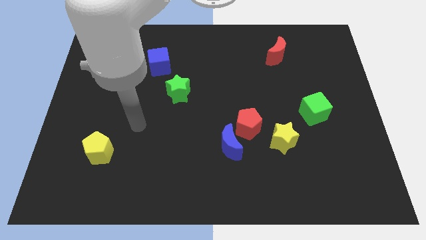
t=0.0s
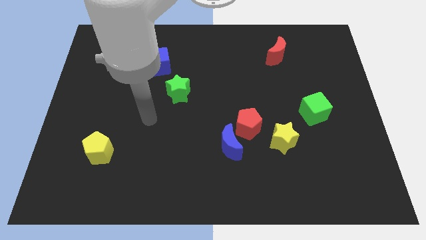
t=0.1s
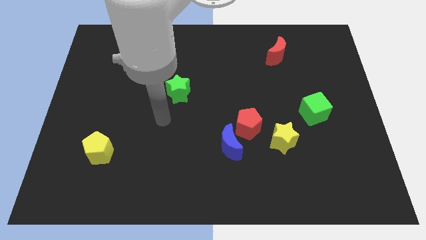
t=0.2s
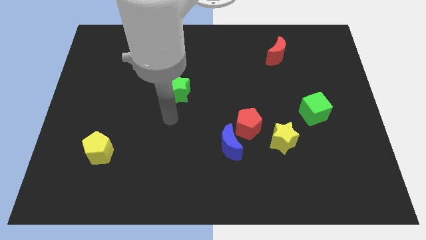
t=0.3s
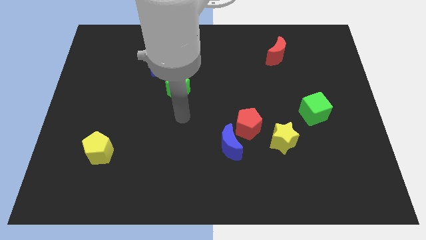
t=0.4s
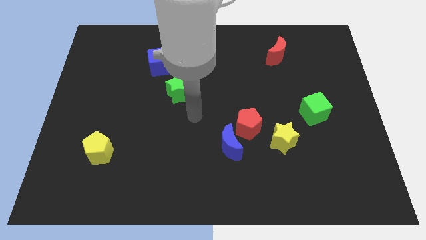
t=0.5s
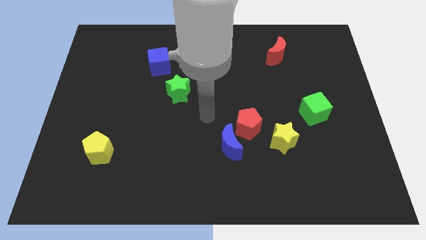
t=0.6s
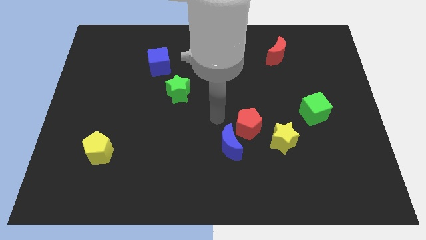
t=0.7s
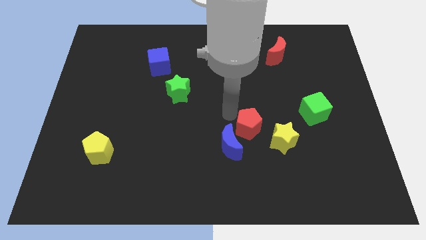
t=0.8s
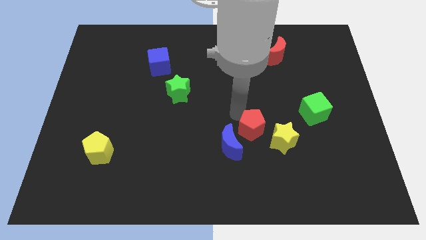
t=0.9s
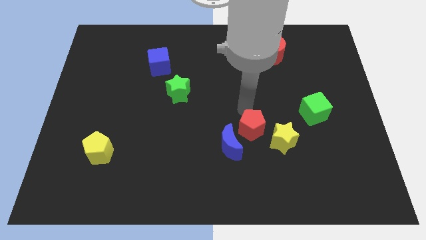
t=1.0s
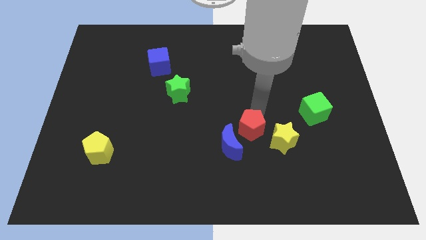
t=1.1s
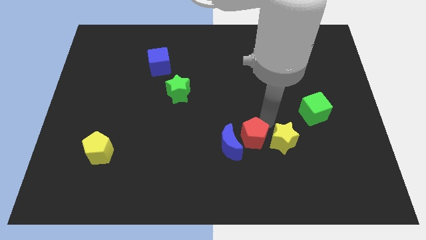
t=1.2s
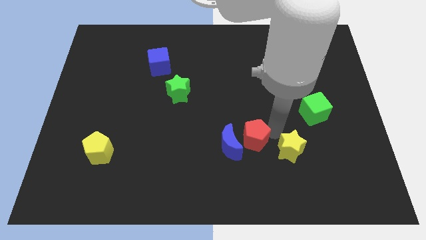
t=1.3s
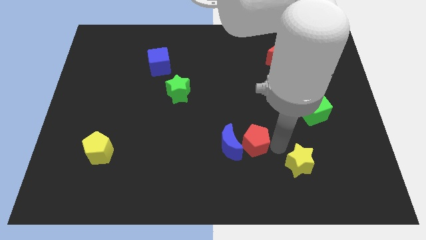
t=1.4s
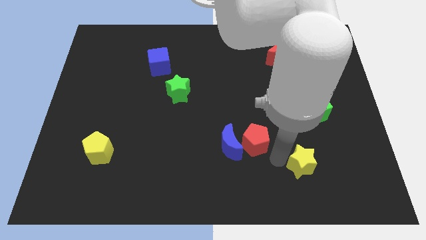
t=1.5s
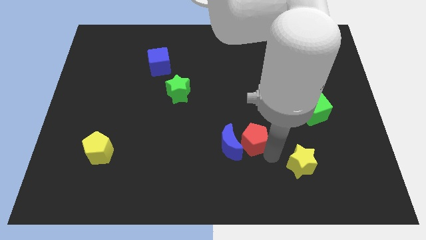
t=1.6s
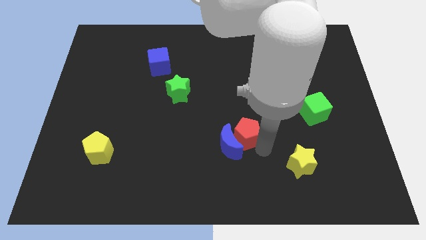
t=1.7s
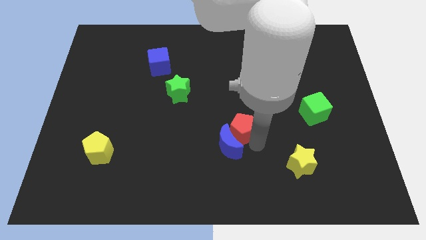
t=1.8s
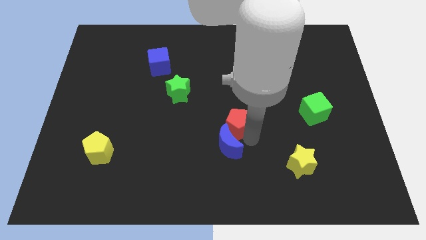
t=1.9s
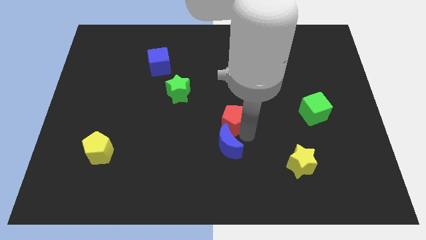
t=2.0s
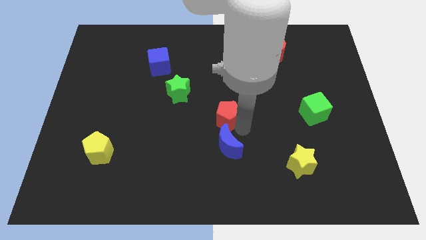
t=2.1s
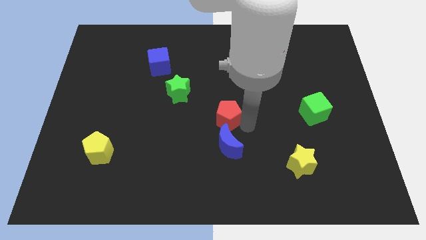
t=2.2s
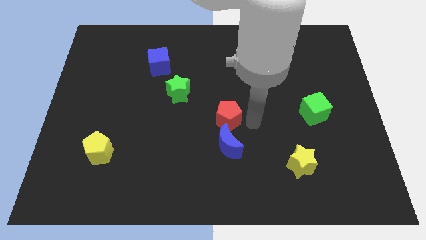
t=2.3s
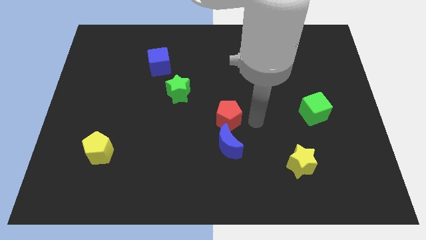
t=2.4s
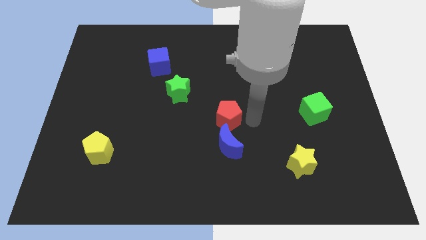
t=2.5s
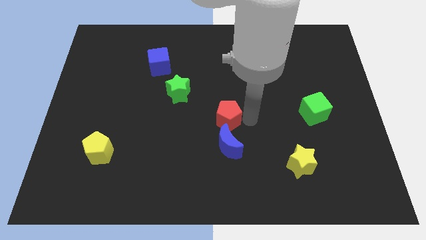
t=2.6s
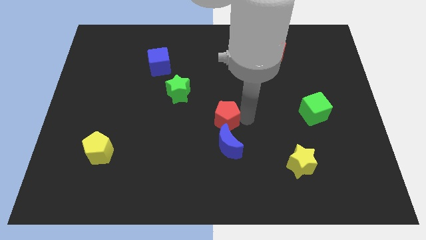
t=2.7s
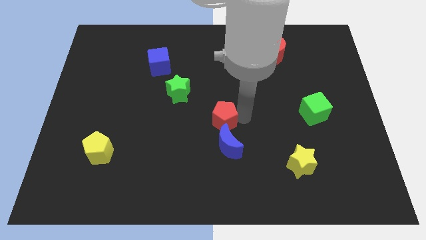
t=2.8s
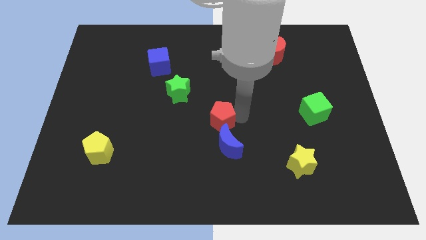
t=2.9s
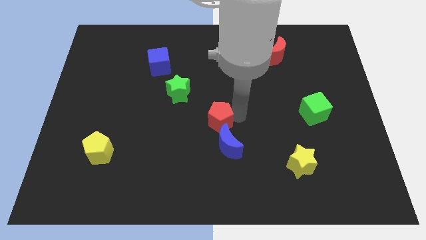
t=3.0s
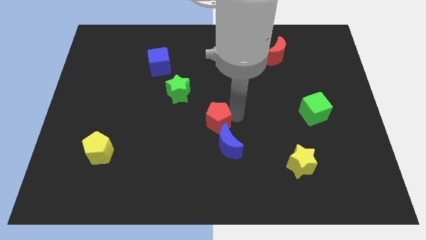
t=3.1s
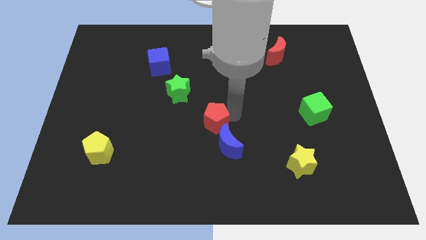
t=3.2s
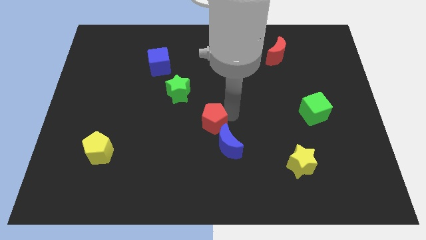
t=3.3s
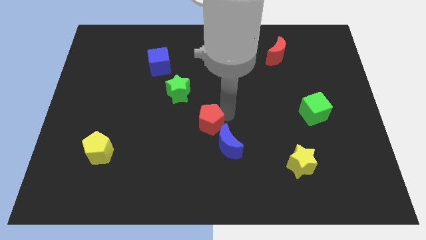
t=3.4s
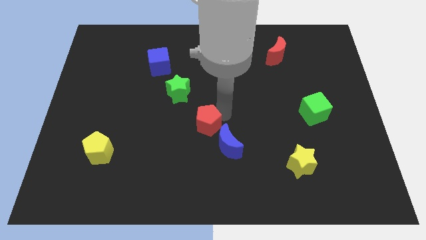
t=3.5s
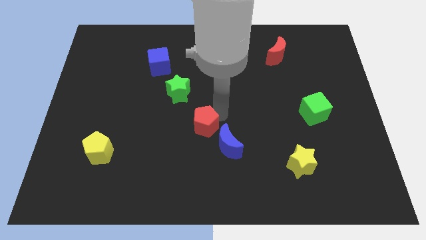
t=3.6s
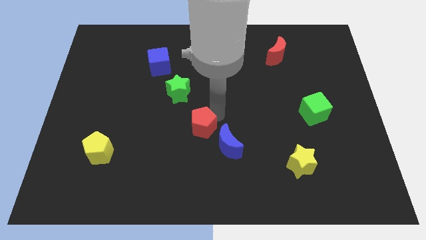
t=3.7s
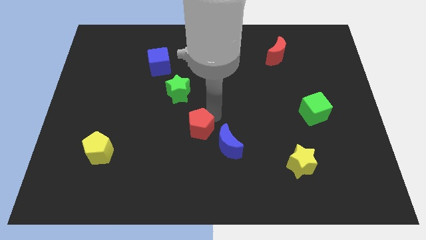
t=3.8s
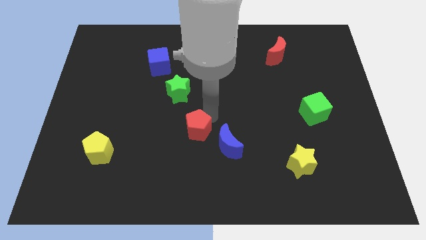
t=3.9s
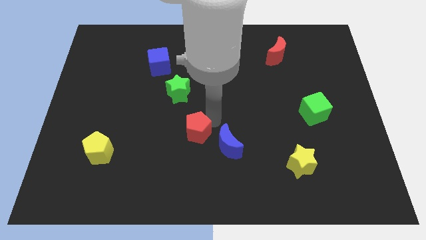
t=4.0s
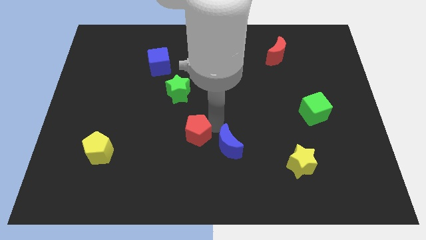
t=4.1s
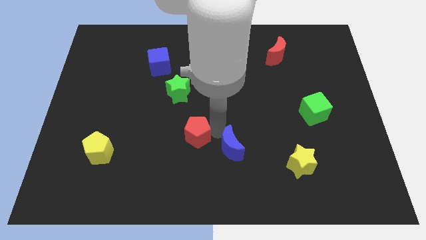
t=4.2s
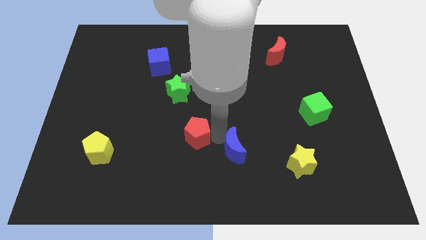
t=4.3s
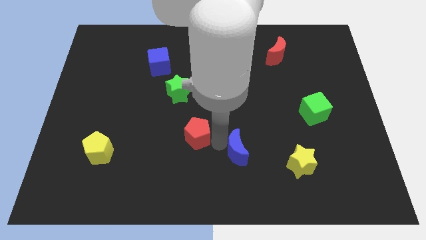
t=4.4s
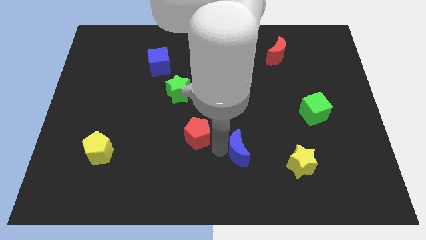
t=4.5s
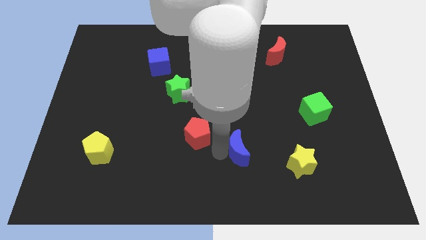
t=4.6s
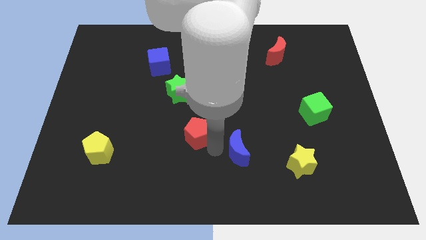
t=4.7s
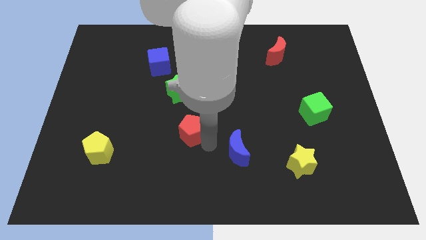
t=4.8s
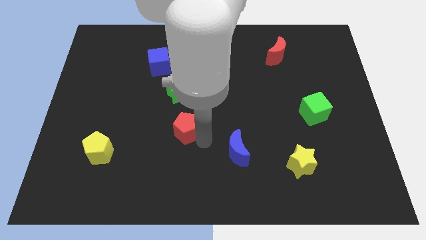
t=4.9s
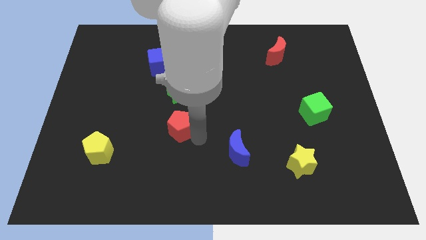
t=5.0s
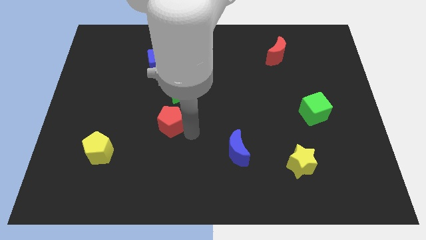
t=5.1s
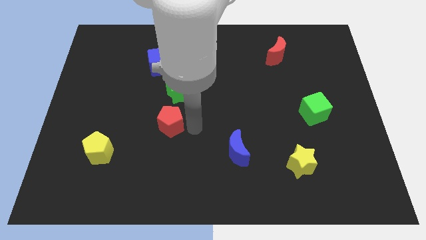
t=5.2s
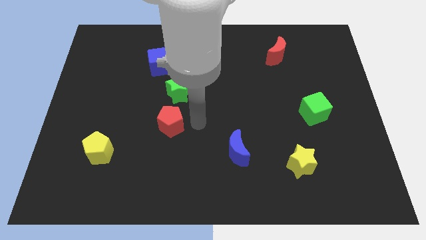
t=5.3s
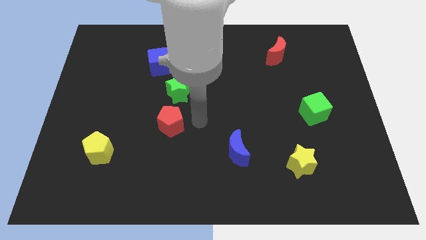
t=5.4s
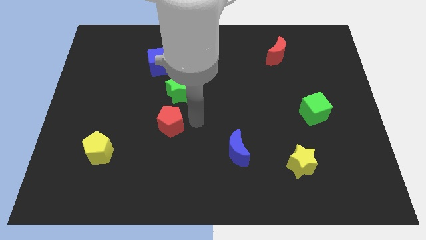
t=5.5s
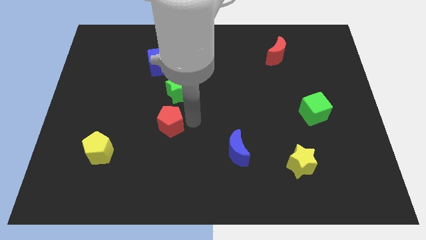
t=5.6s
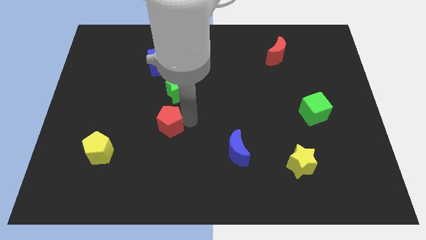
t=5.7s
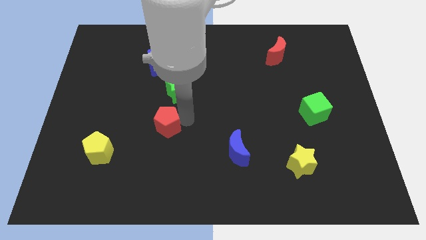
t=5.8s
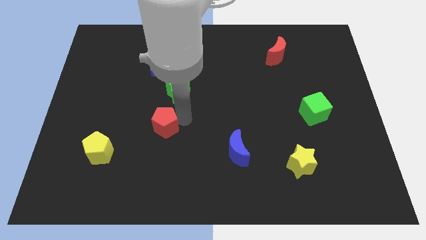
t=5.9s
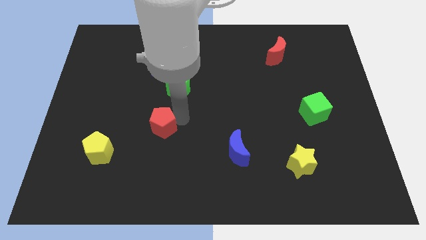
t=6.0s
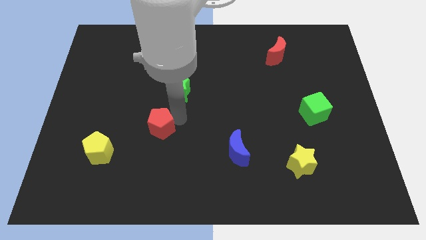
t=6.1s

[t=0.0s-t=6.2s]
move the red pentagon left

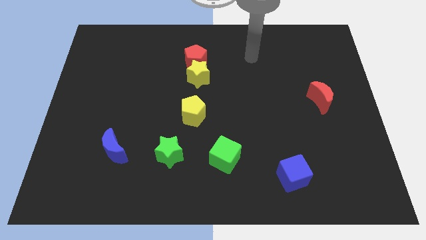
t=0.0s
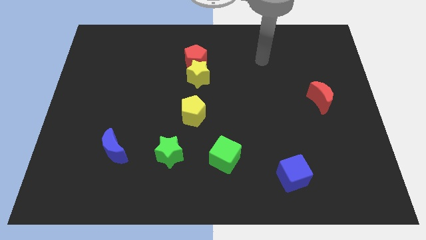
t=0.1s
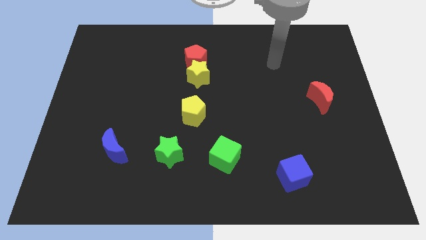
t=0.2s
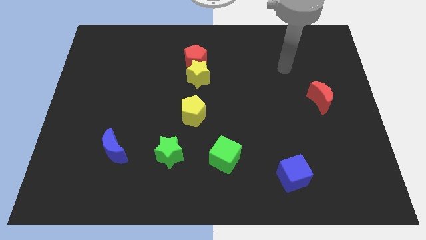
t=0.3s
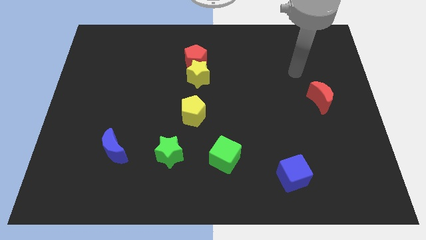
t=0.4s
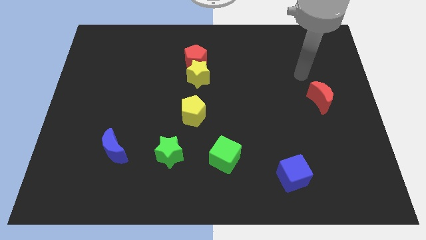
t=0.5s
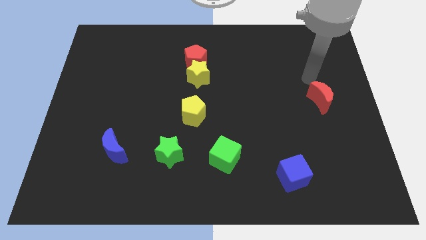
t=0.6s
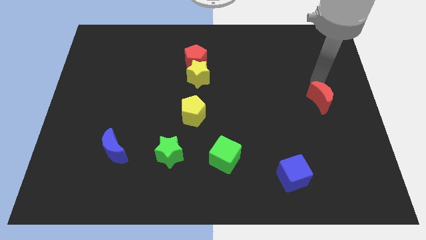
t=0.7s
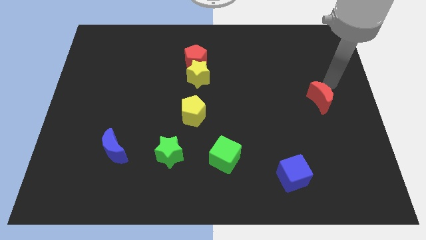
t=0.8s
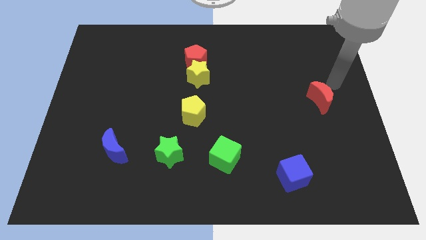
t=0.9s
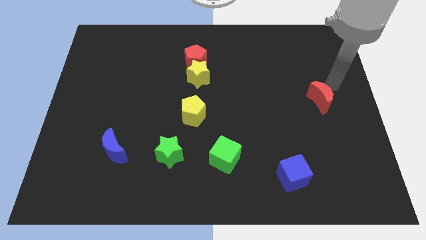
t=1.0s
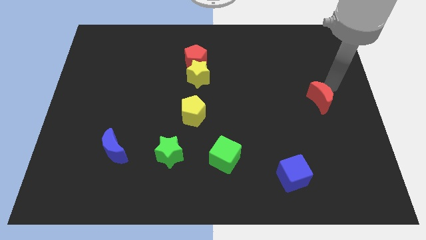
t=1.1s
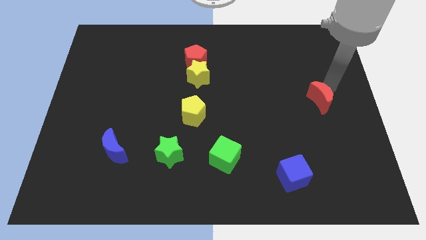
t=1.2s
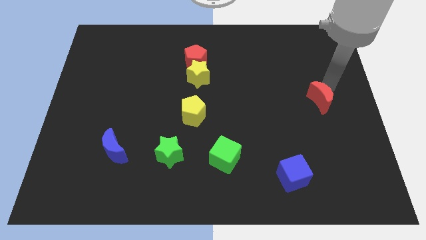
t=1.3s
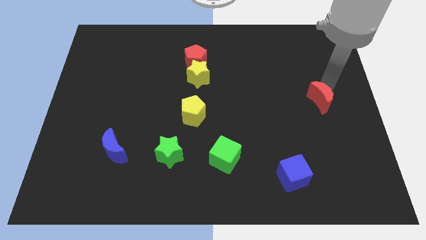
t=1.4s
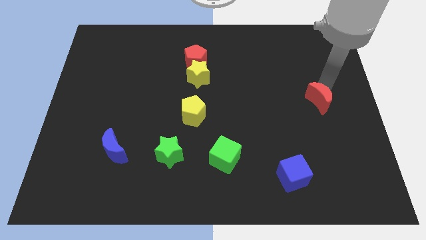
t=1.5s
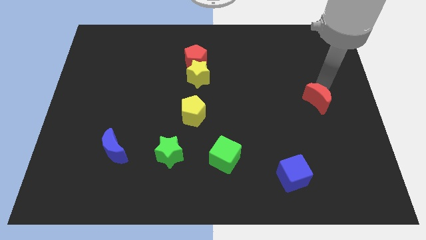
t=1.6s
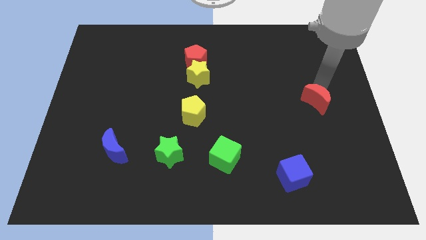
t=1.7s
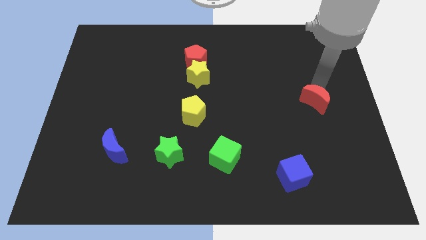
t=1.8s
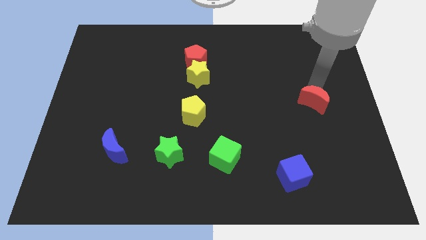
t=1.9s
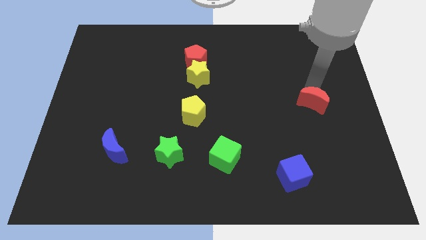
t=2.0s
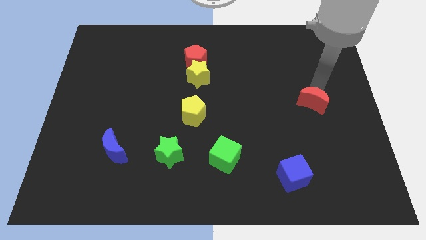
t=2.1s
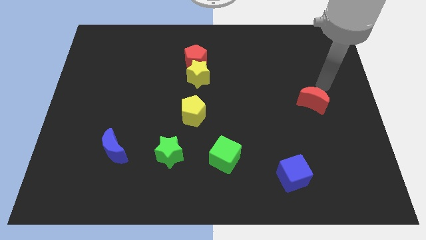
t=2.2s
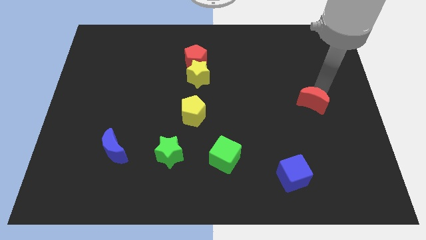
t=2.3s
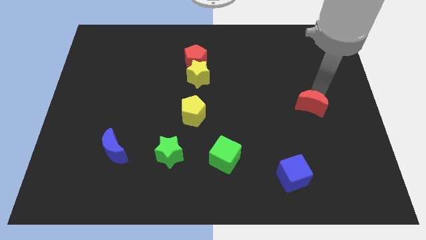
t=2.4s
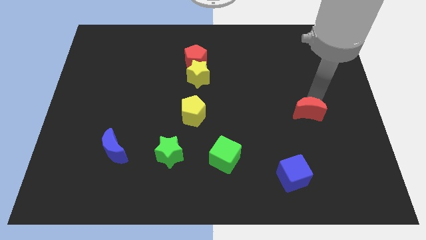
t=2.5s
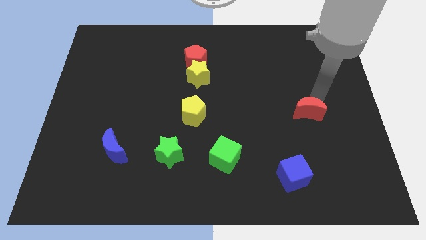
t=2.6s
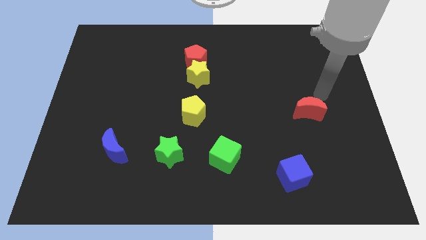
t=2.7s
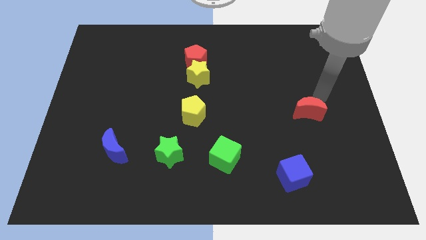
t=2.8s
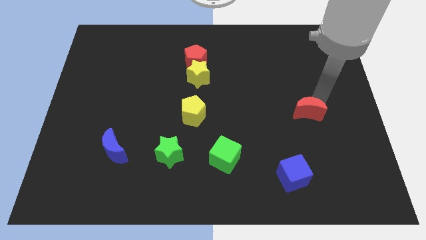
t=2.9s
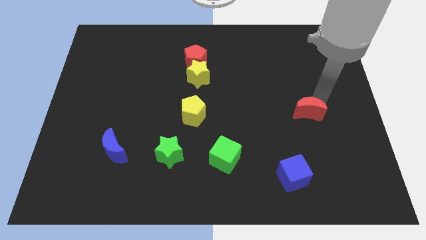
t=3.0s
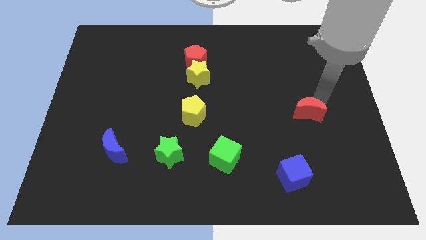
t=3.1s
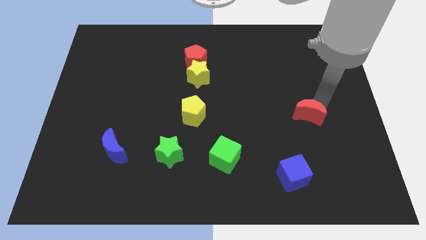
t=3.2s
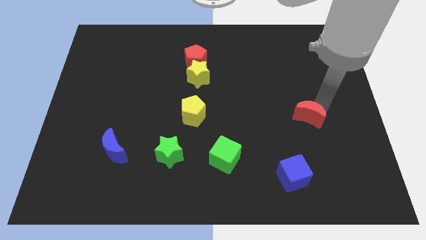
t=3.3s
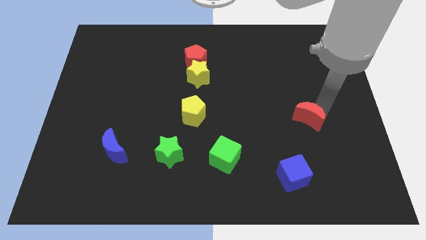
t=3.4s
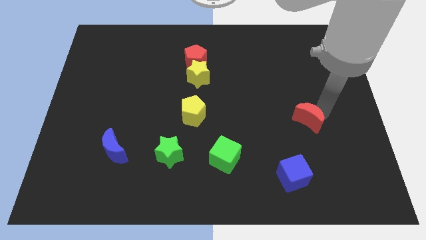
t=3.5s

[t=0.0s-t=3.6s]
slide the red moon a bit down and to the left diagonally
